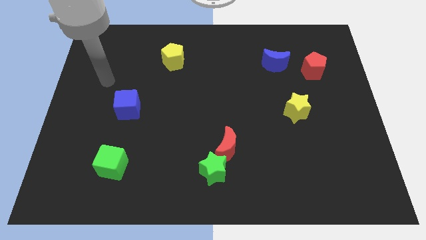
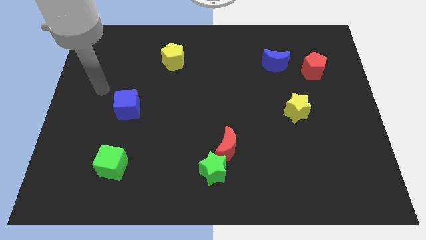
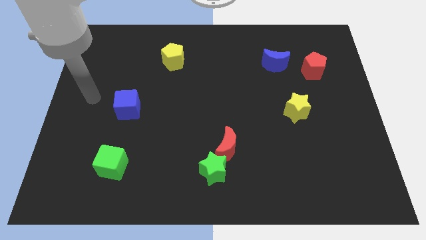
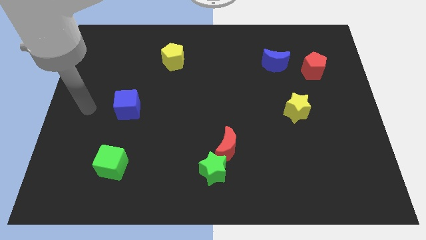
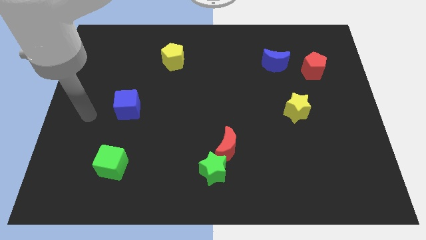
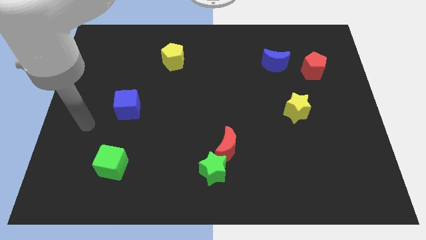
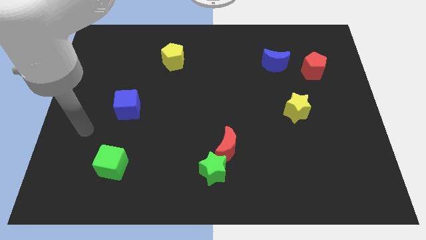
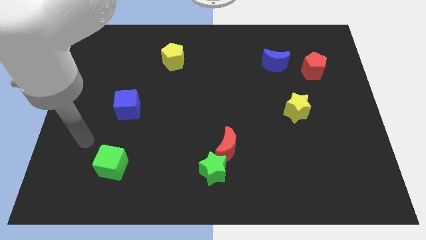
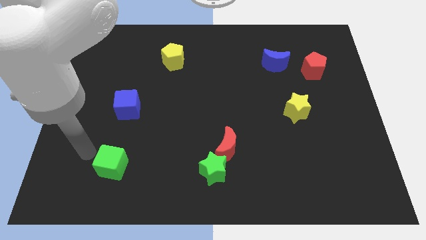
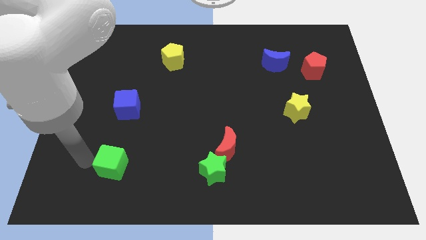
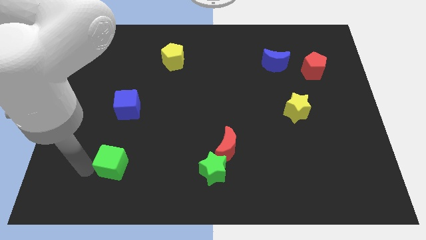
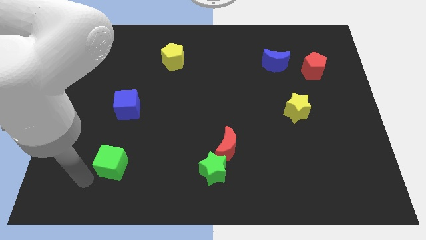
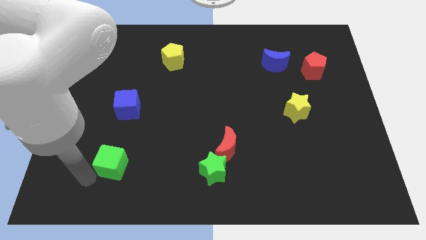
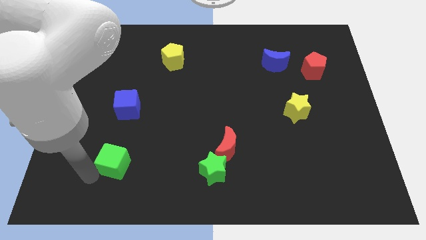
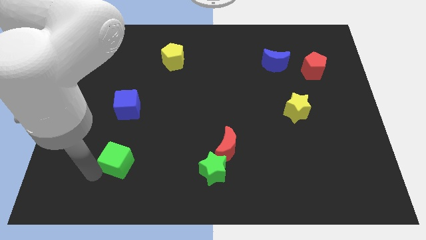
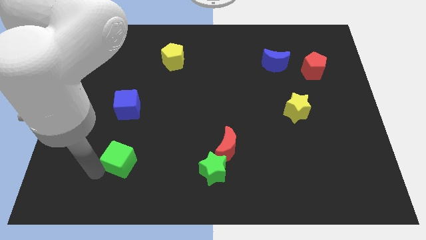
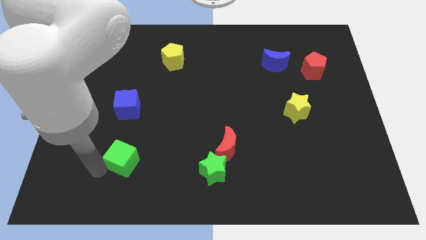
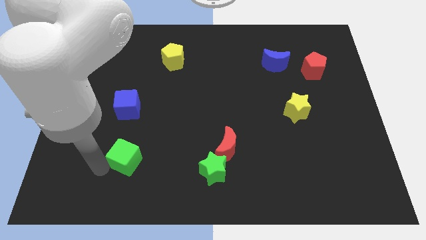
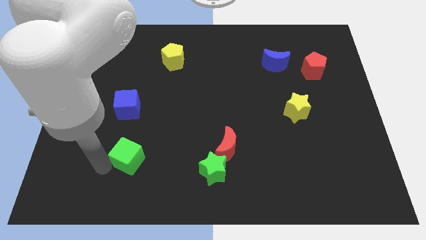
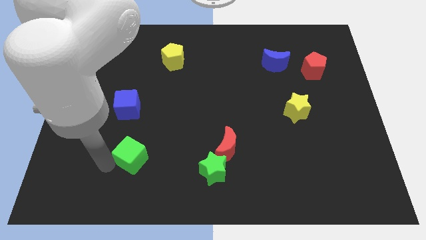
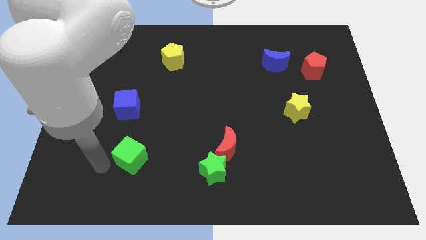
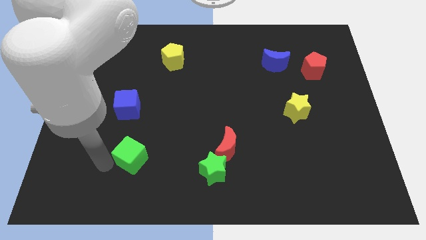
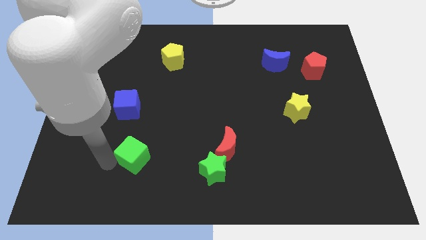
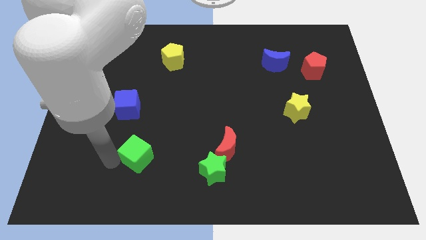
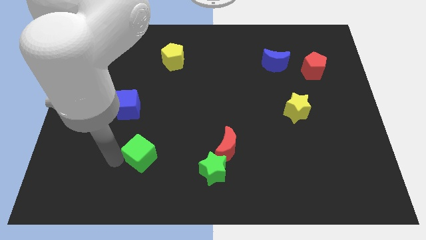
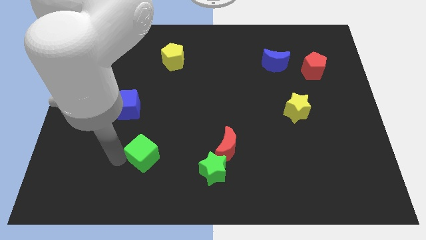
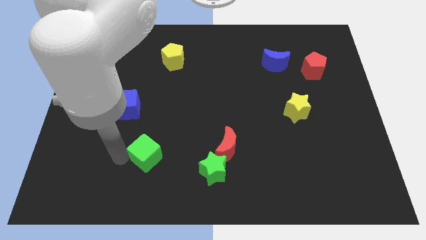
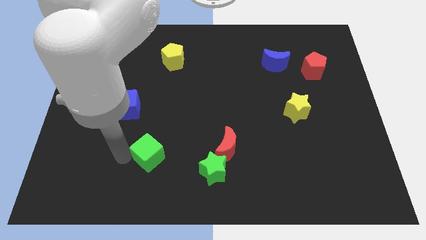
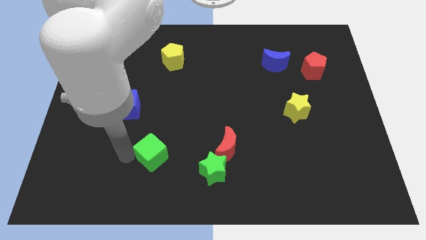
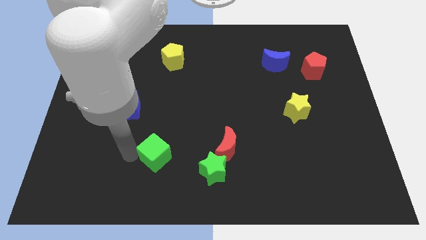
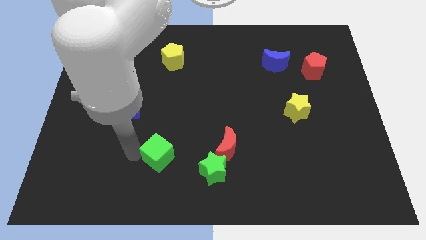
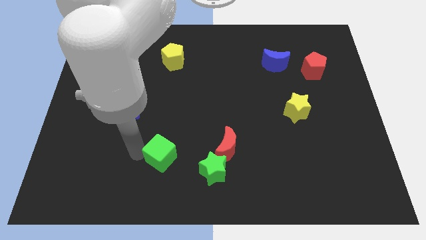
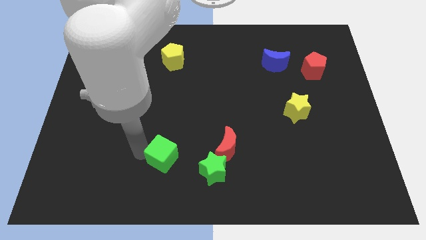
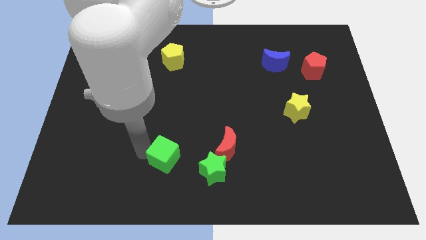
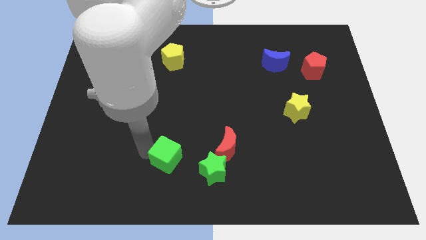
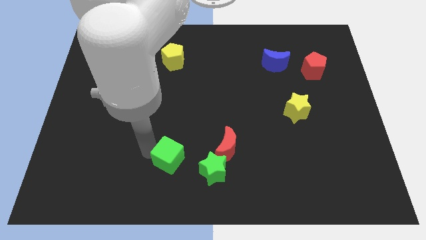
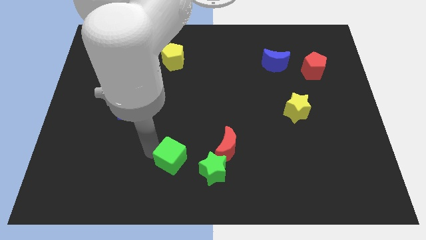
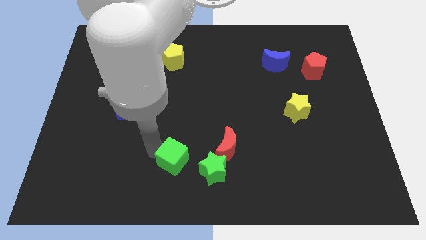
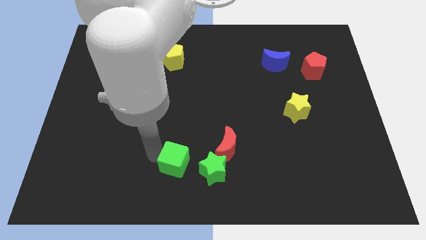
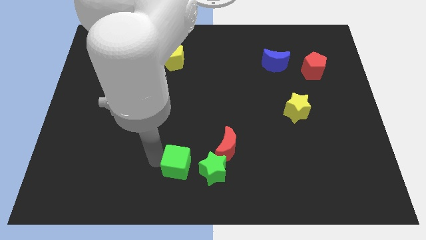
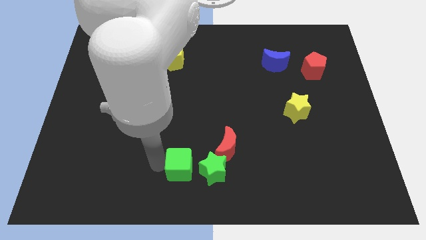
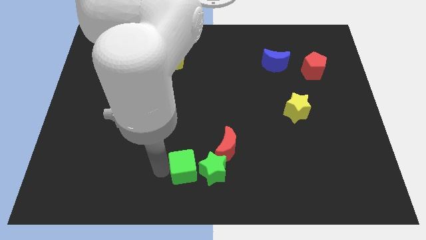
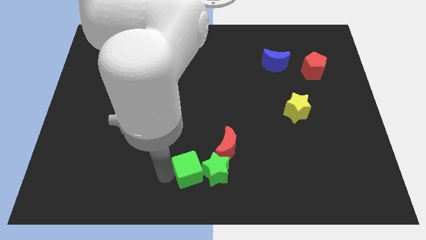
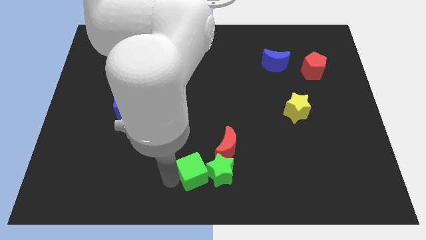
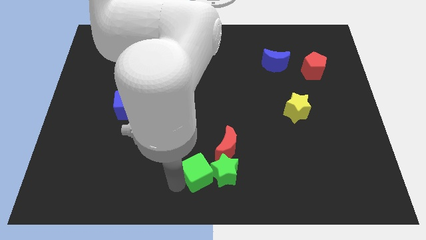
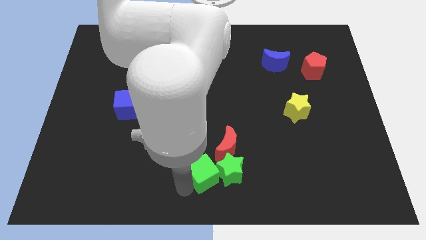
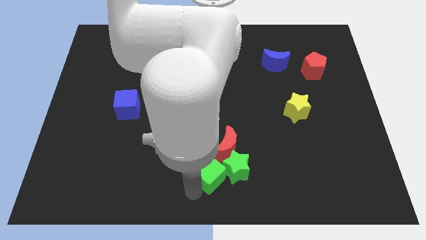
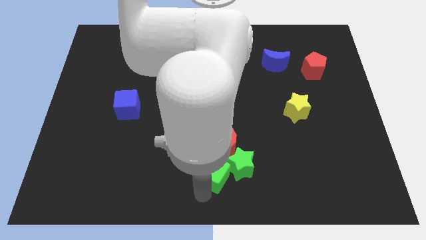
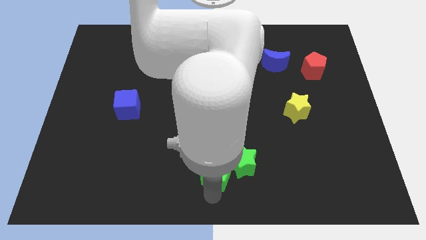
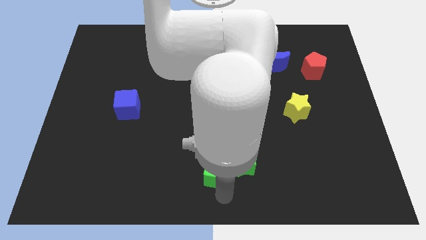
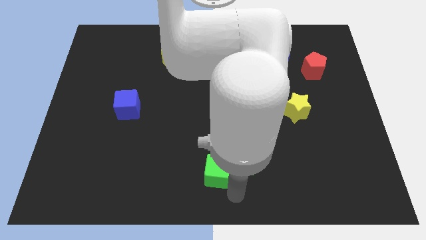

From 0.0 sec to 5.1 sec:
move the green cube to the red moon

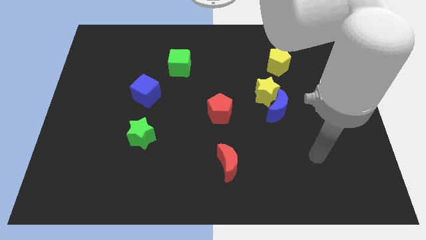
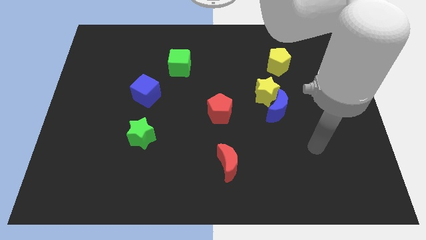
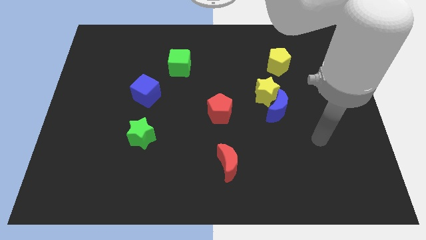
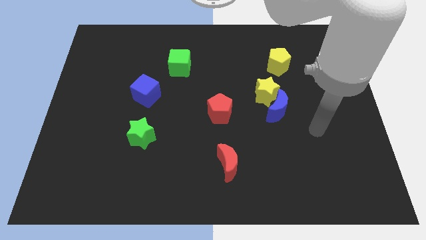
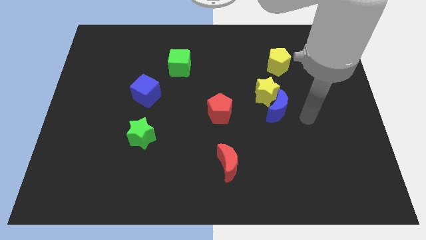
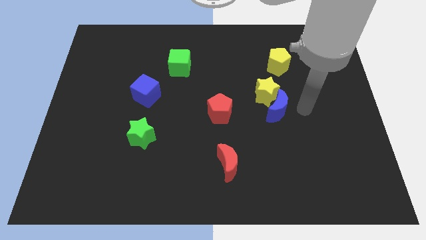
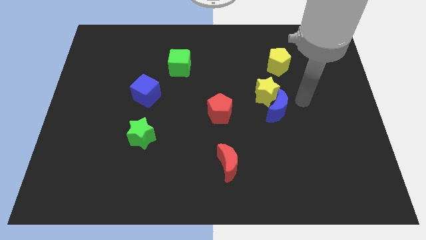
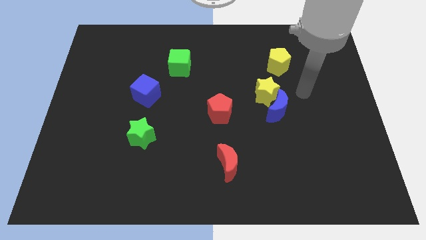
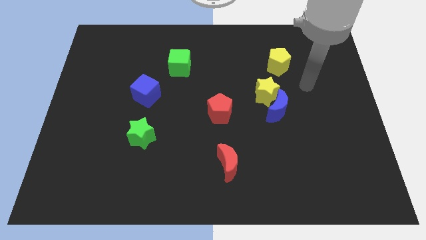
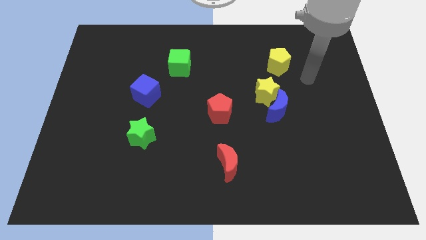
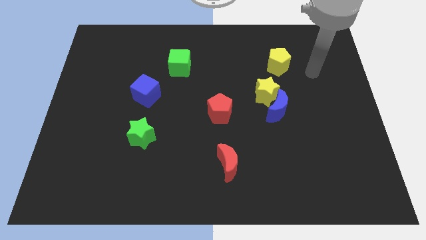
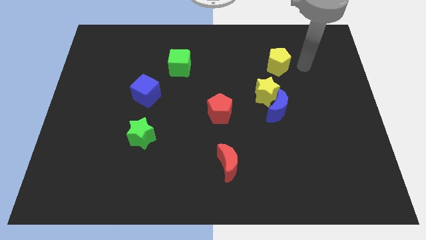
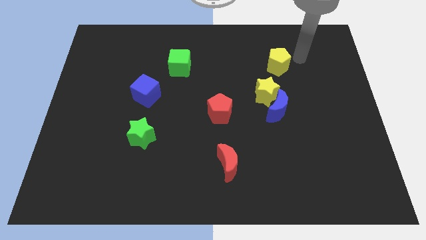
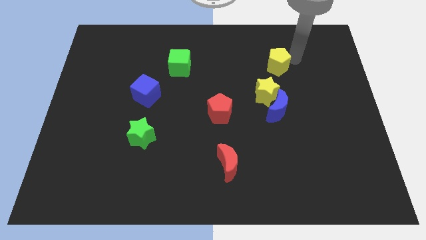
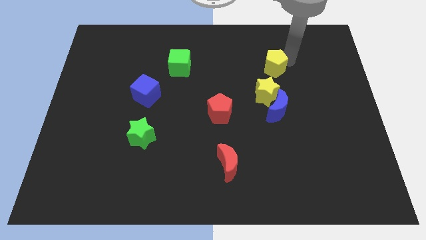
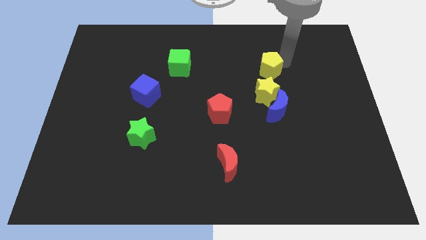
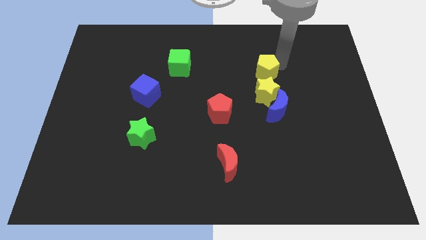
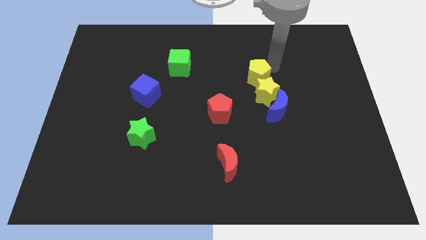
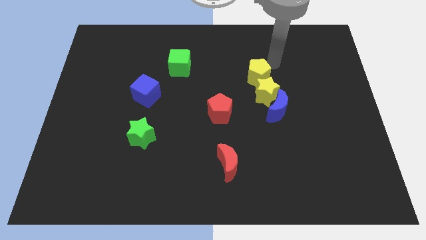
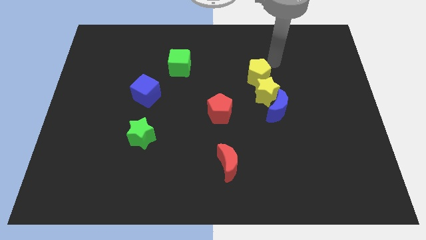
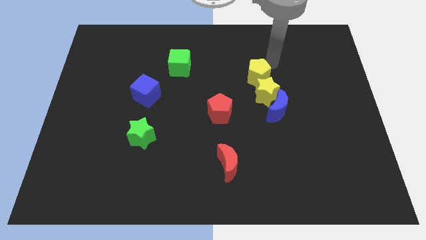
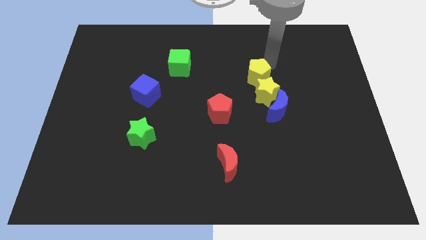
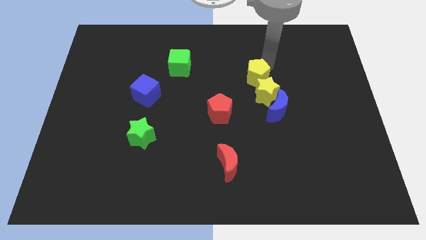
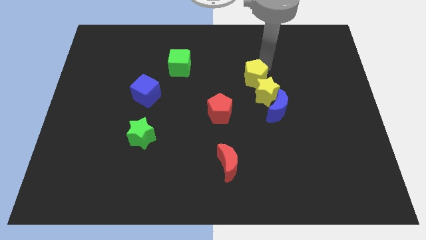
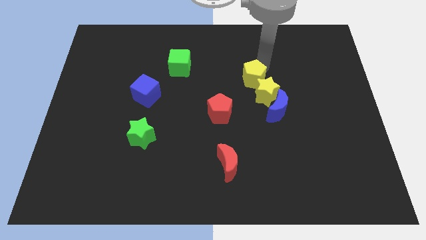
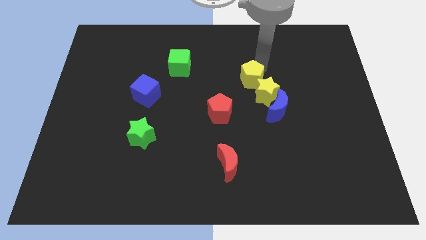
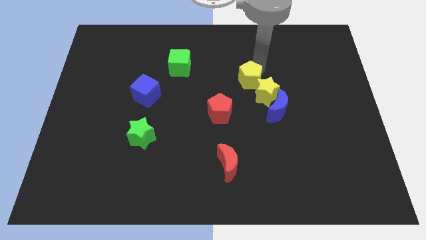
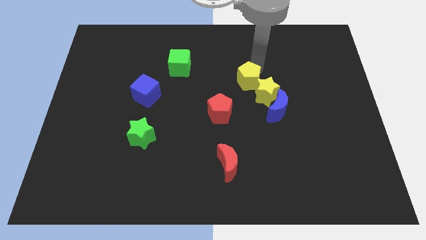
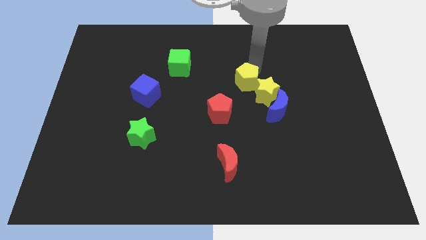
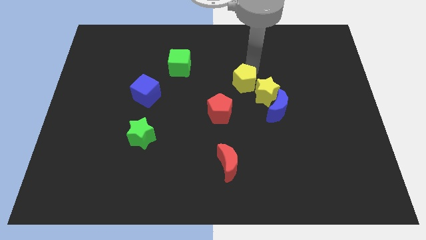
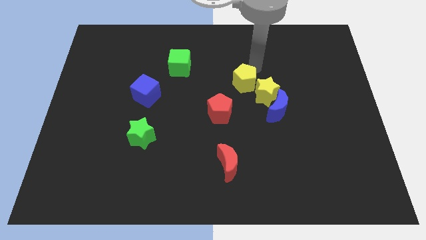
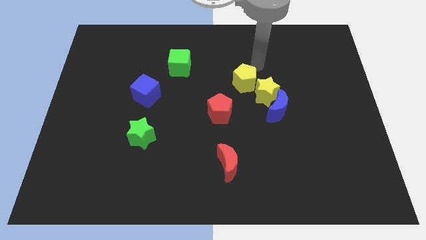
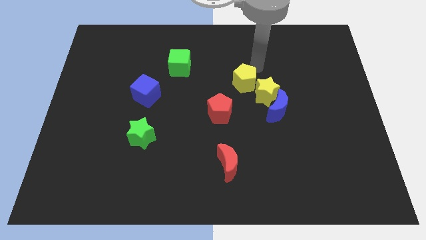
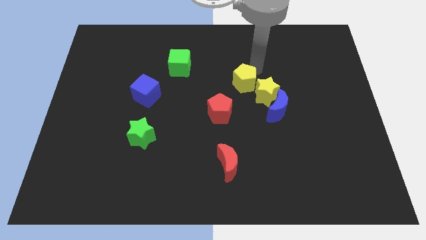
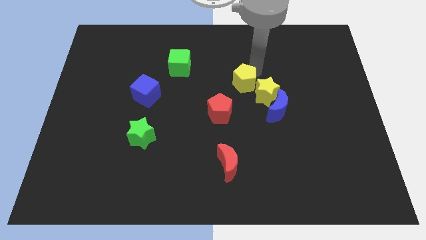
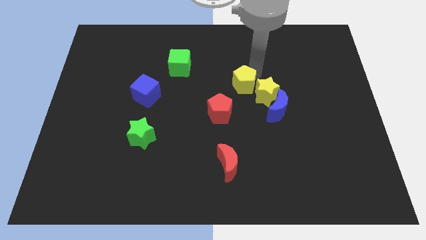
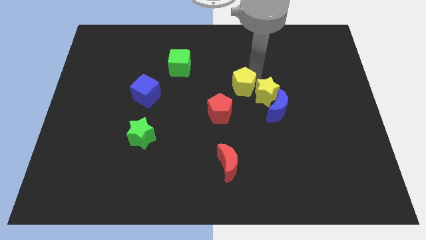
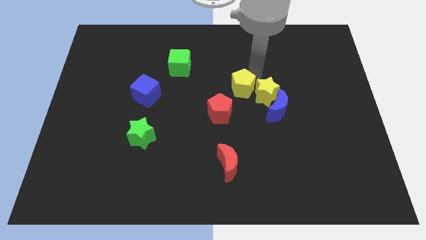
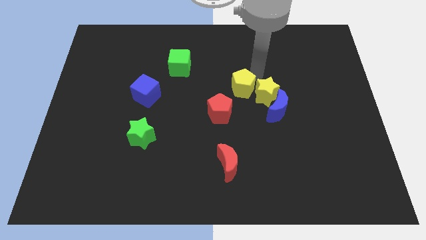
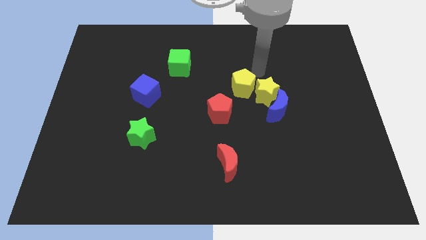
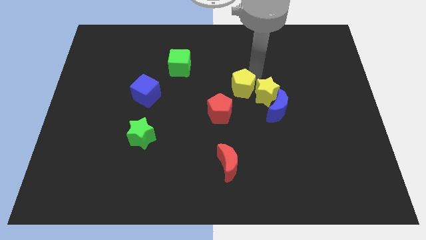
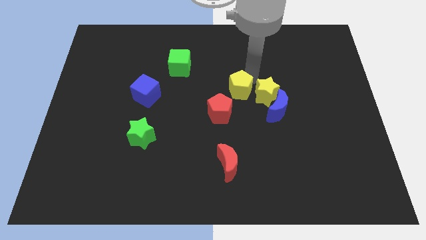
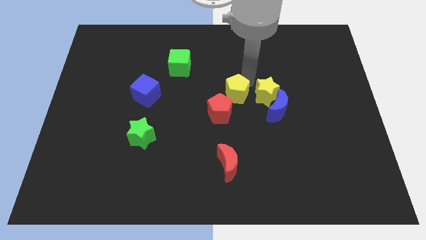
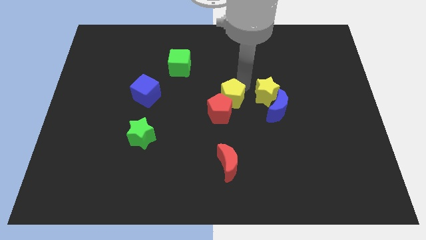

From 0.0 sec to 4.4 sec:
push the yellow pentagon to the red pentagon
